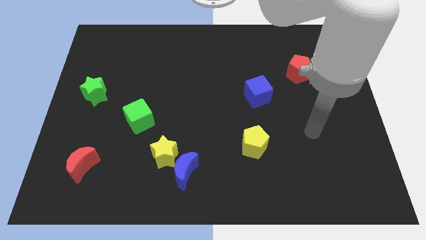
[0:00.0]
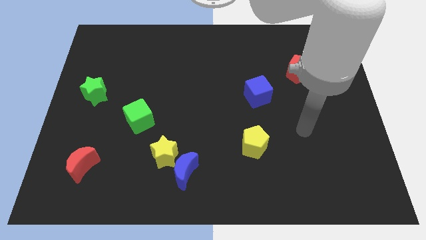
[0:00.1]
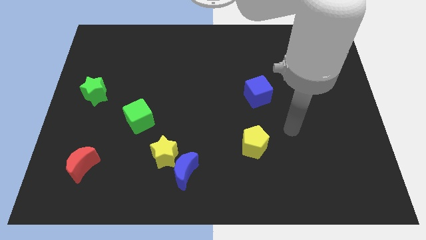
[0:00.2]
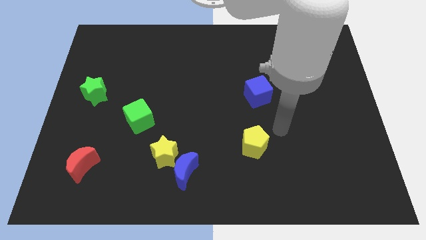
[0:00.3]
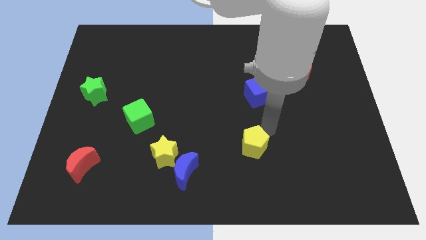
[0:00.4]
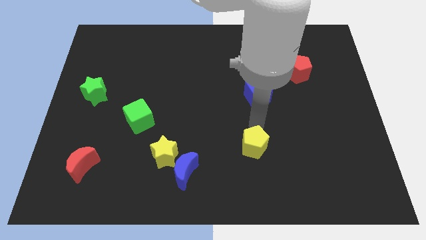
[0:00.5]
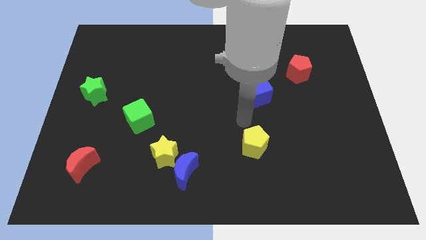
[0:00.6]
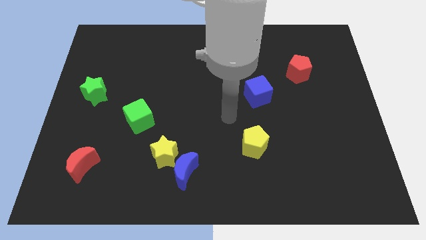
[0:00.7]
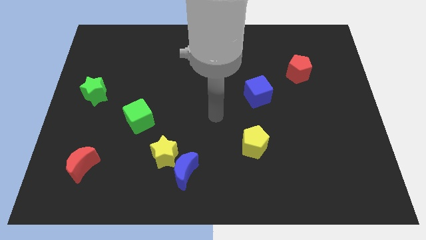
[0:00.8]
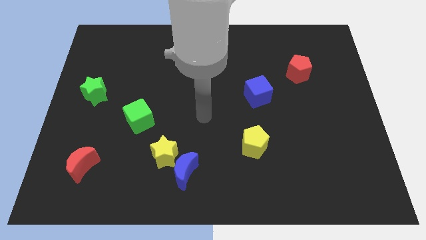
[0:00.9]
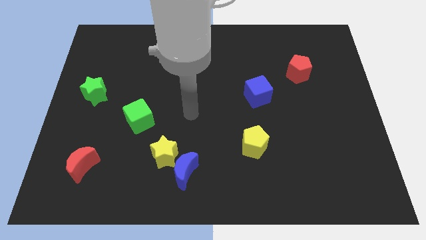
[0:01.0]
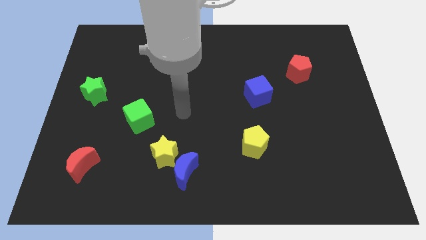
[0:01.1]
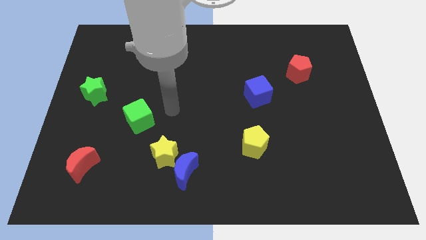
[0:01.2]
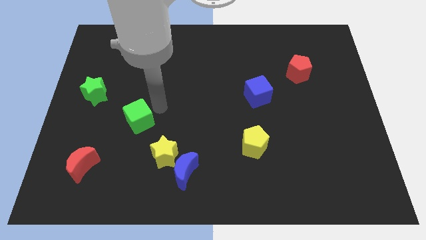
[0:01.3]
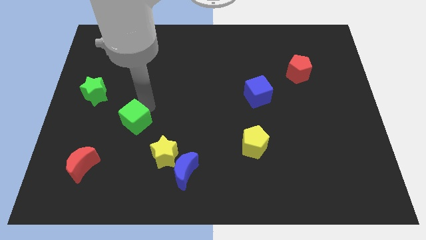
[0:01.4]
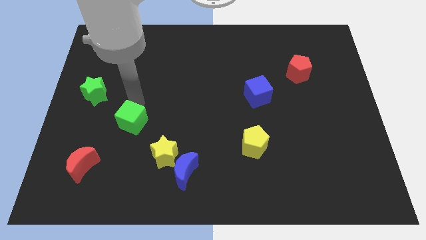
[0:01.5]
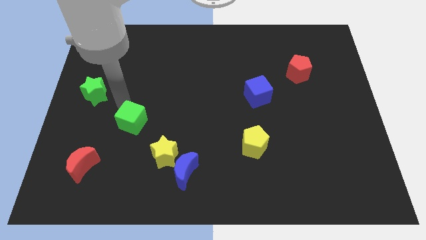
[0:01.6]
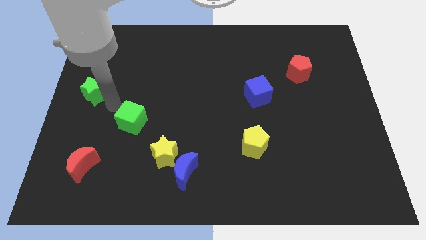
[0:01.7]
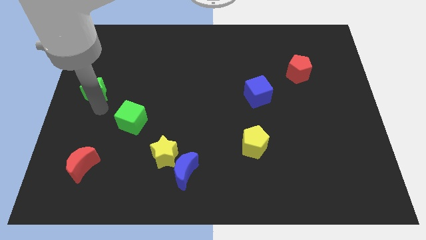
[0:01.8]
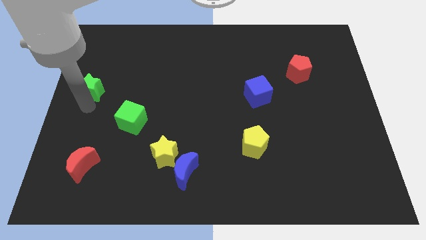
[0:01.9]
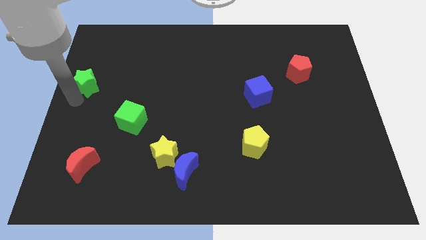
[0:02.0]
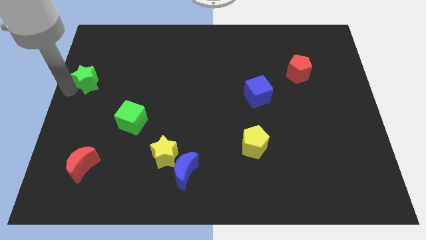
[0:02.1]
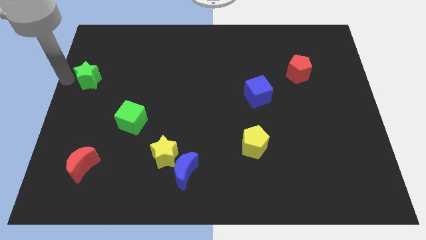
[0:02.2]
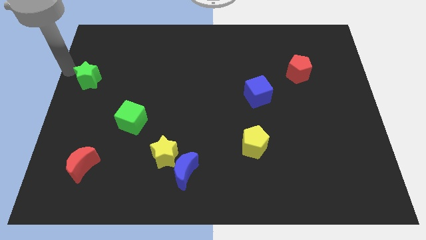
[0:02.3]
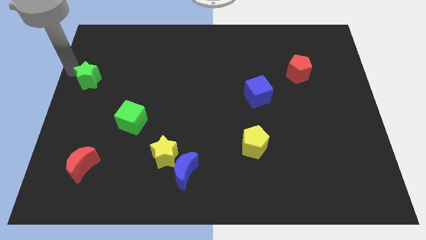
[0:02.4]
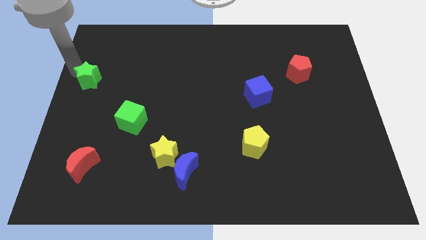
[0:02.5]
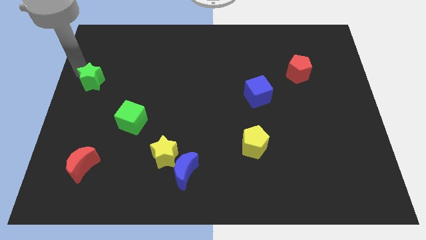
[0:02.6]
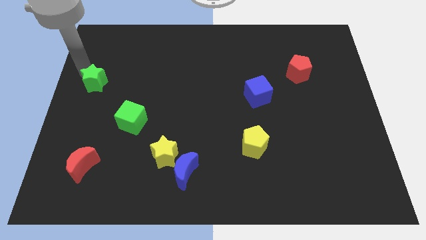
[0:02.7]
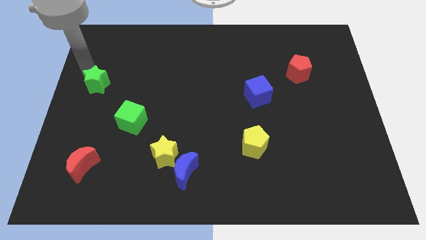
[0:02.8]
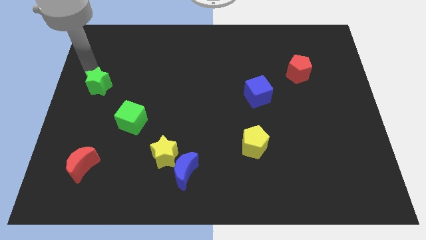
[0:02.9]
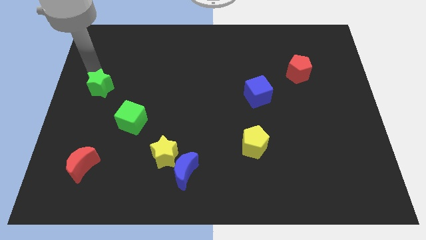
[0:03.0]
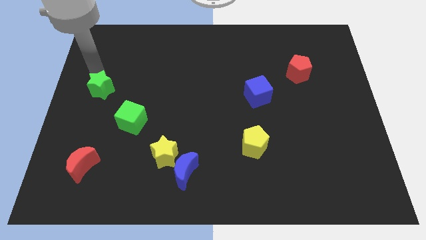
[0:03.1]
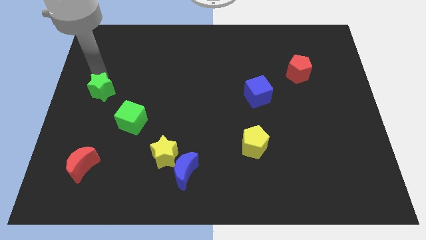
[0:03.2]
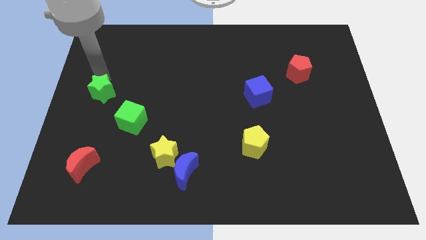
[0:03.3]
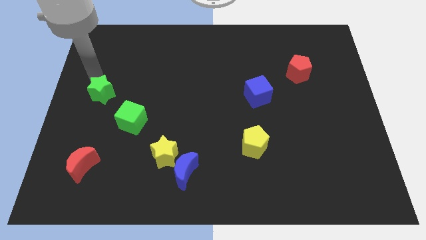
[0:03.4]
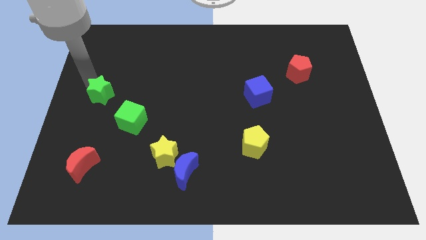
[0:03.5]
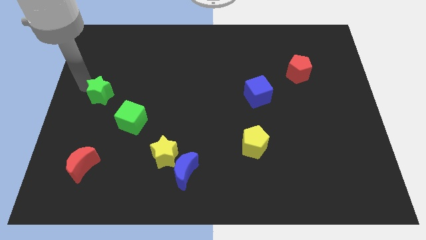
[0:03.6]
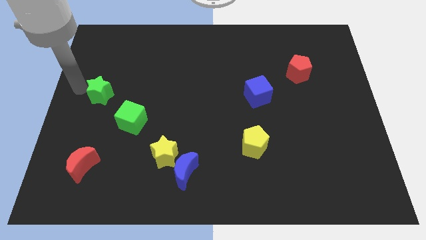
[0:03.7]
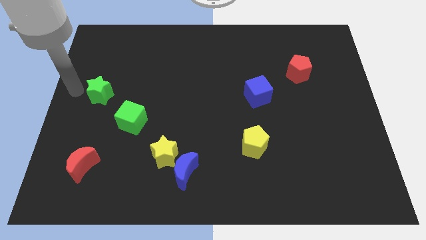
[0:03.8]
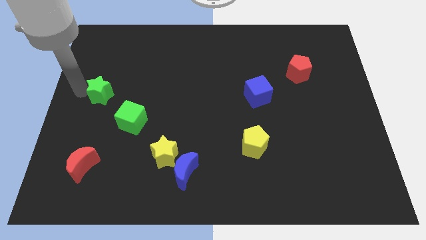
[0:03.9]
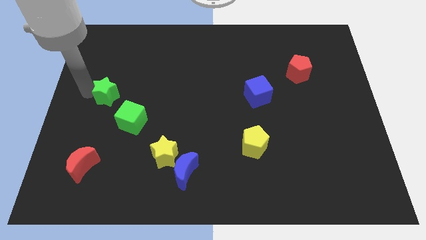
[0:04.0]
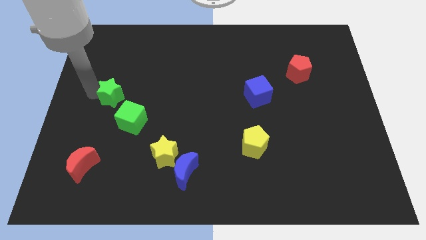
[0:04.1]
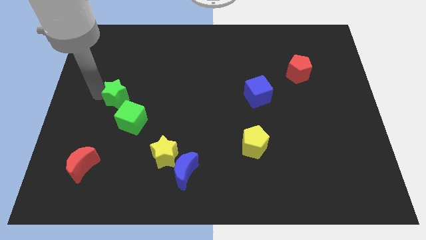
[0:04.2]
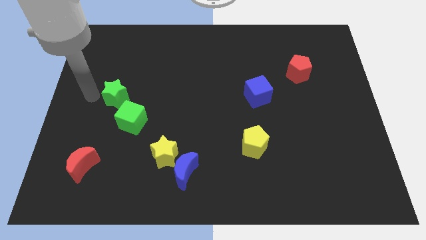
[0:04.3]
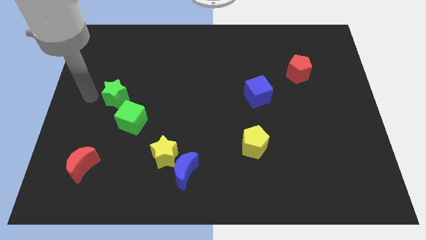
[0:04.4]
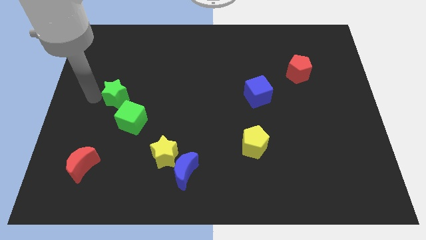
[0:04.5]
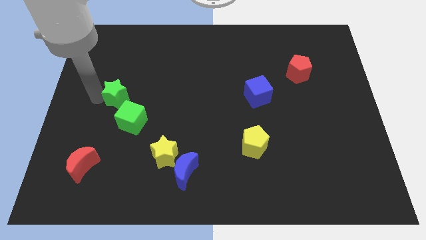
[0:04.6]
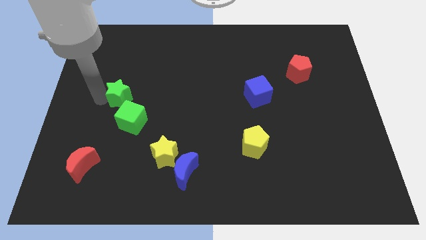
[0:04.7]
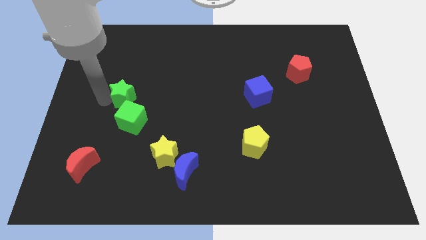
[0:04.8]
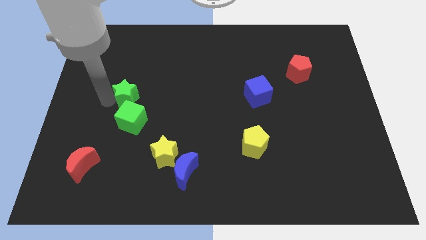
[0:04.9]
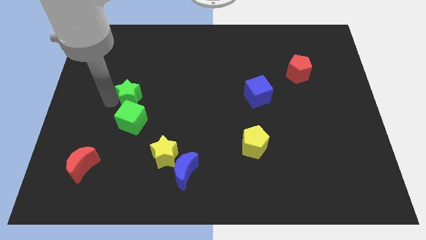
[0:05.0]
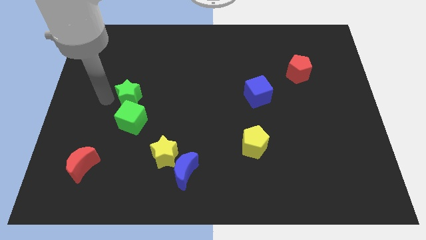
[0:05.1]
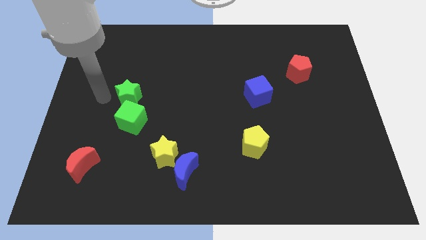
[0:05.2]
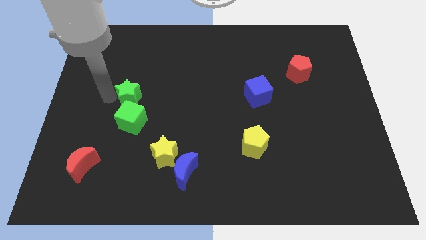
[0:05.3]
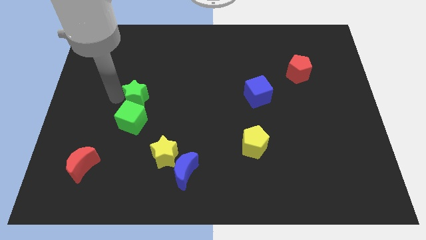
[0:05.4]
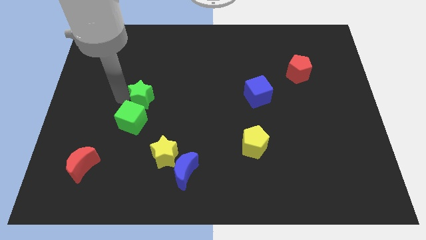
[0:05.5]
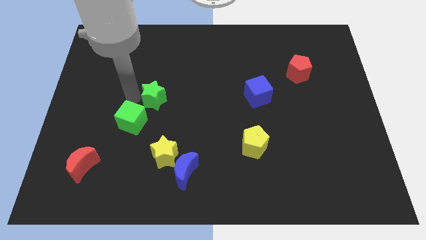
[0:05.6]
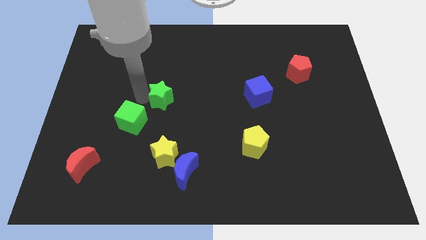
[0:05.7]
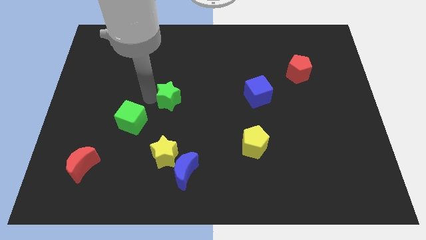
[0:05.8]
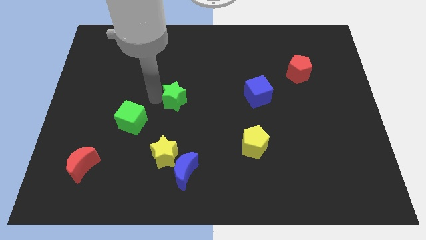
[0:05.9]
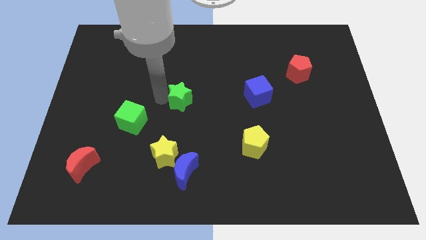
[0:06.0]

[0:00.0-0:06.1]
slide the green star right

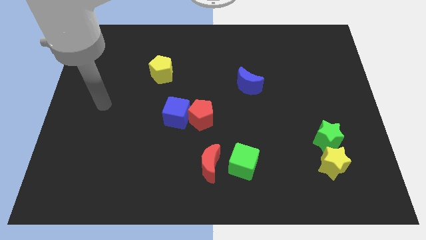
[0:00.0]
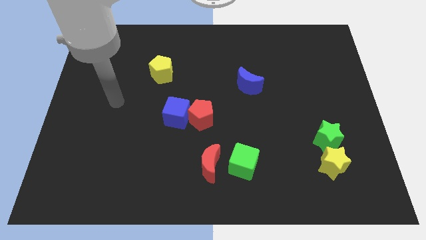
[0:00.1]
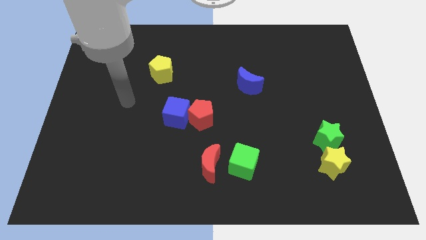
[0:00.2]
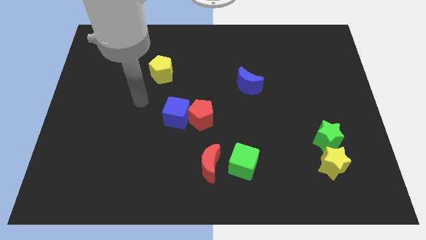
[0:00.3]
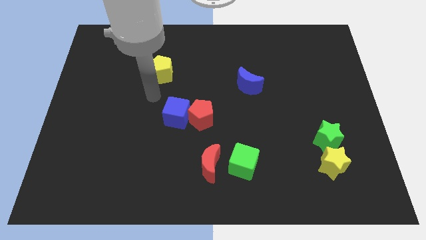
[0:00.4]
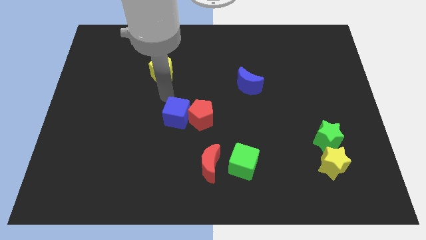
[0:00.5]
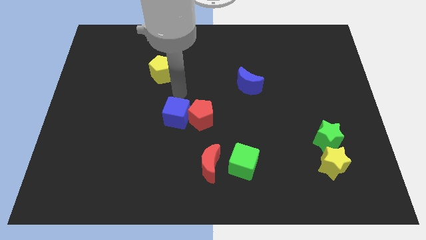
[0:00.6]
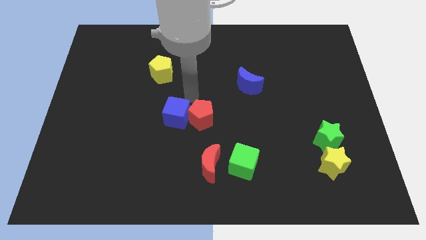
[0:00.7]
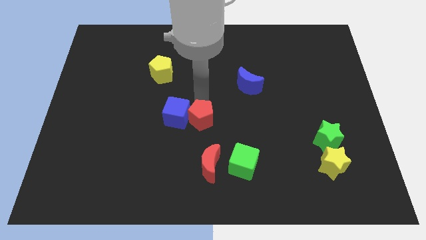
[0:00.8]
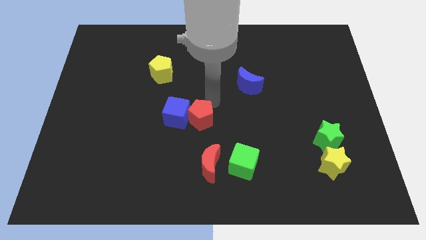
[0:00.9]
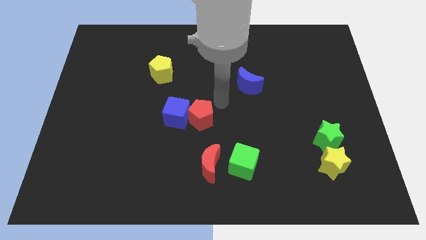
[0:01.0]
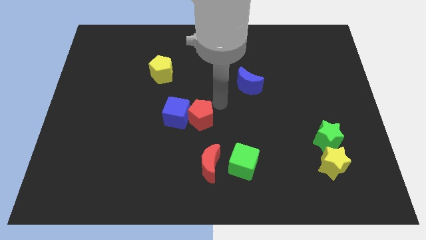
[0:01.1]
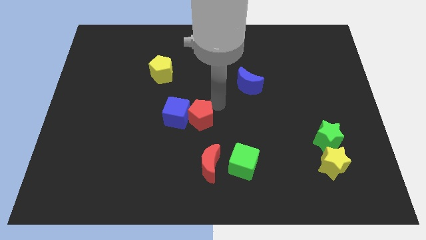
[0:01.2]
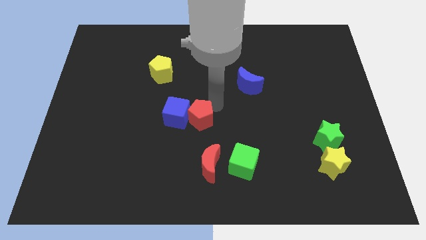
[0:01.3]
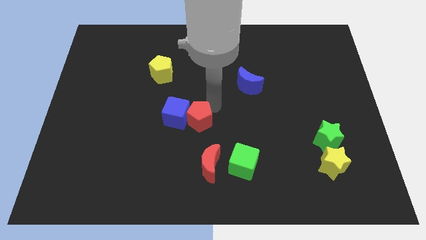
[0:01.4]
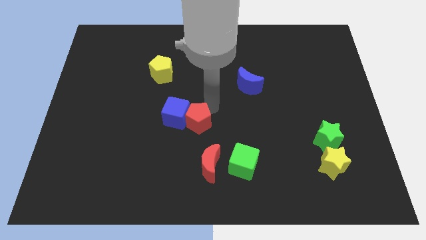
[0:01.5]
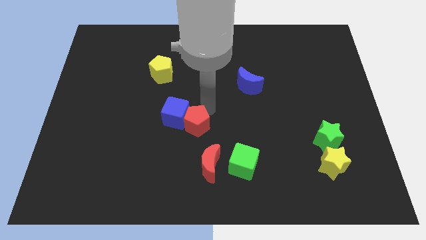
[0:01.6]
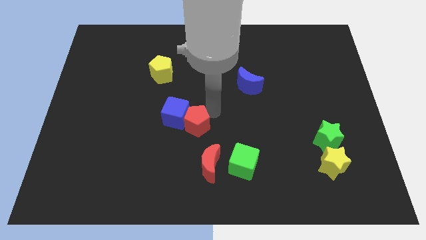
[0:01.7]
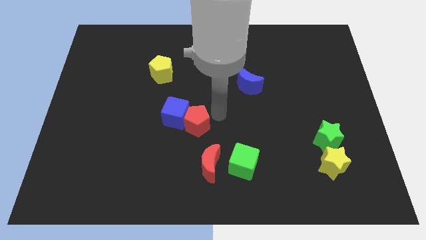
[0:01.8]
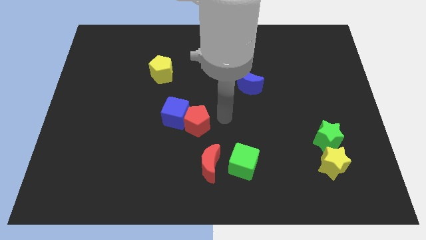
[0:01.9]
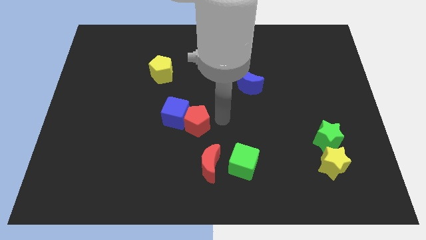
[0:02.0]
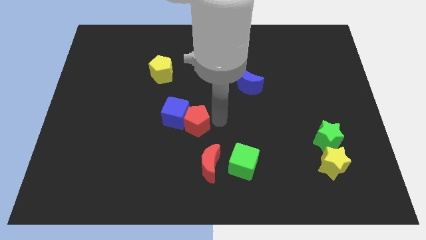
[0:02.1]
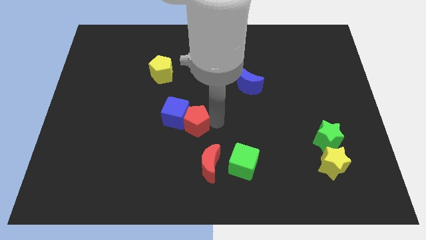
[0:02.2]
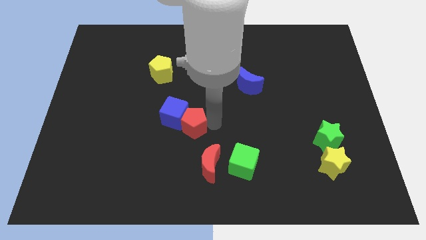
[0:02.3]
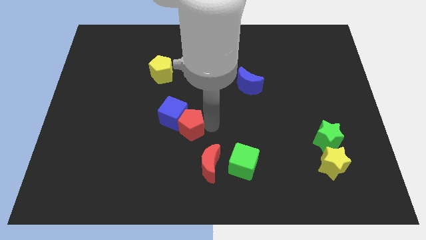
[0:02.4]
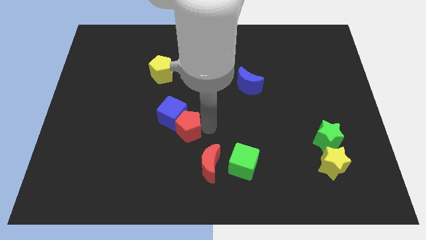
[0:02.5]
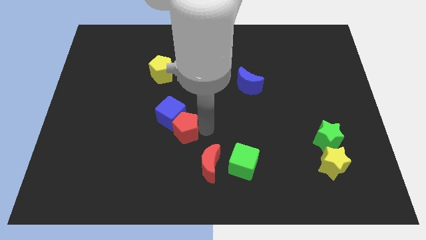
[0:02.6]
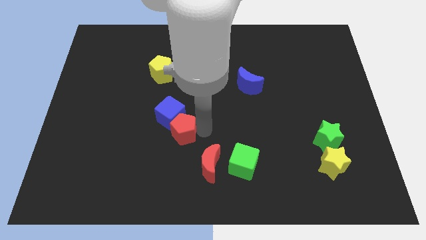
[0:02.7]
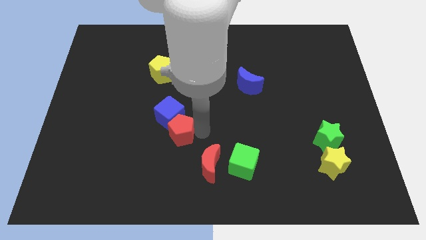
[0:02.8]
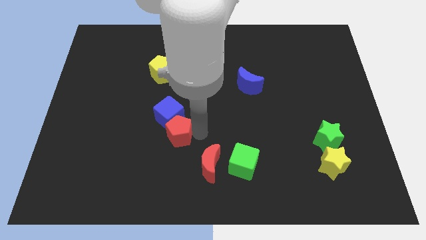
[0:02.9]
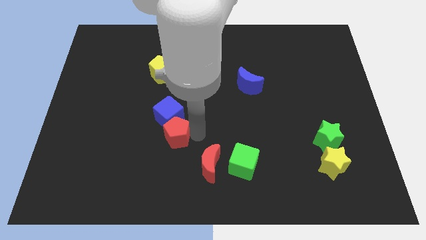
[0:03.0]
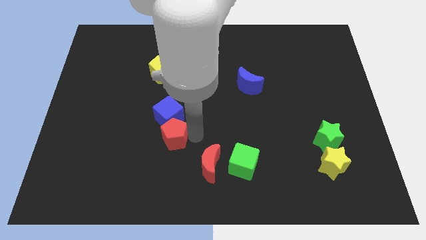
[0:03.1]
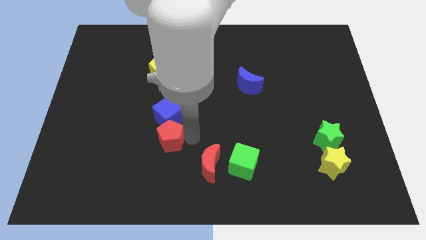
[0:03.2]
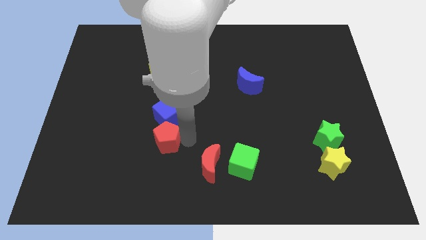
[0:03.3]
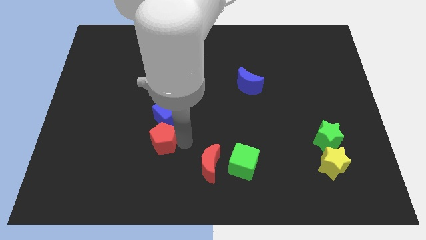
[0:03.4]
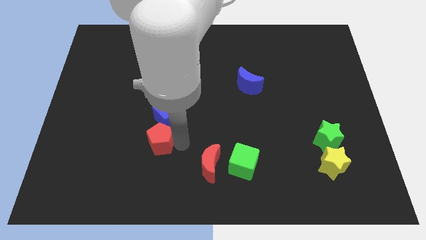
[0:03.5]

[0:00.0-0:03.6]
slide the red pentagon a bit left
